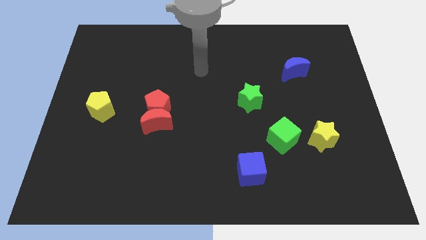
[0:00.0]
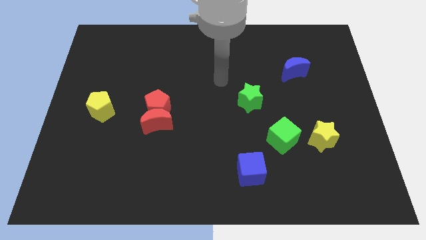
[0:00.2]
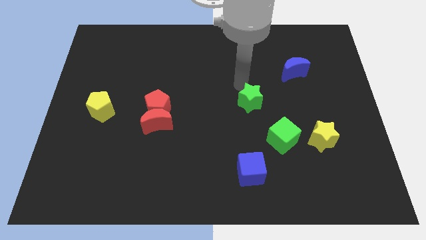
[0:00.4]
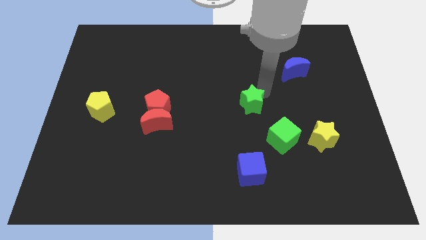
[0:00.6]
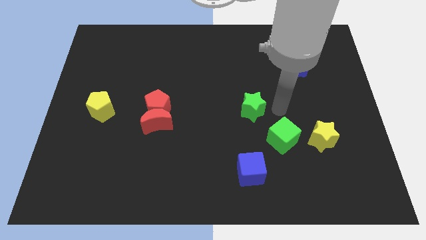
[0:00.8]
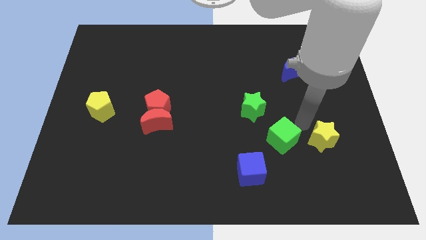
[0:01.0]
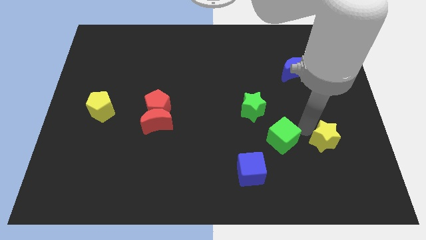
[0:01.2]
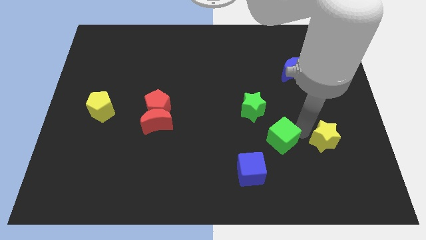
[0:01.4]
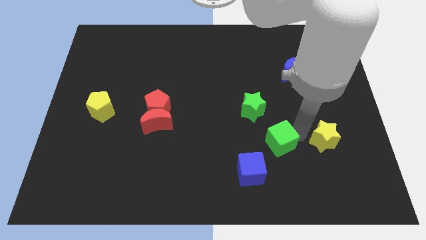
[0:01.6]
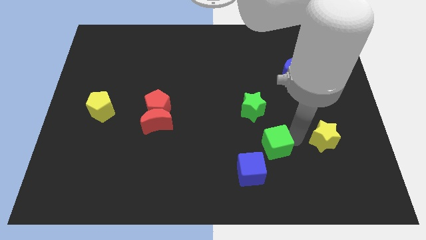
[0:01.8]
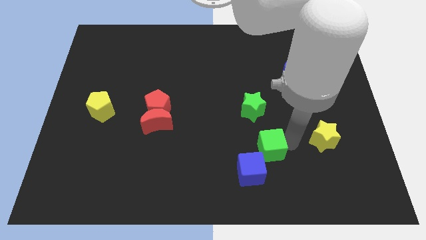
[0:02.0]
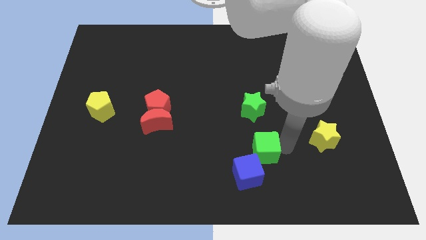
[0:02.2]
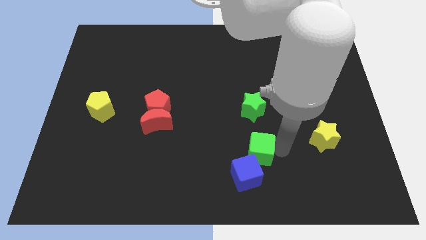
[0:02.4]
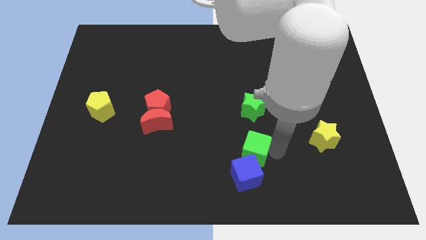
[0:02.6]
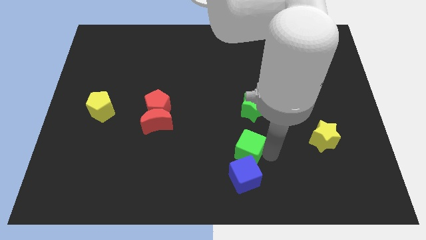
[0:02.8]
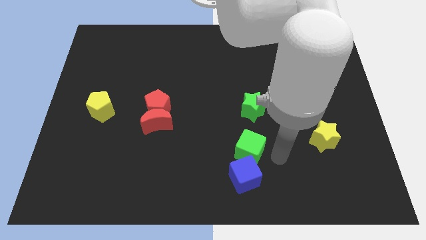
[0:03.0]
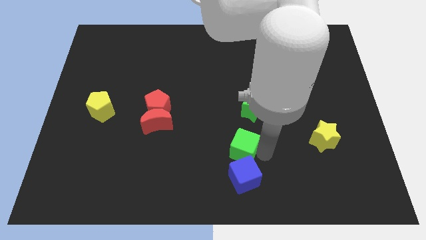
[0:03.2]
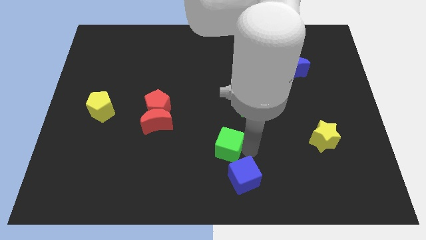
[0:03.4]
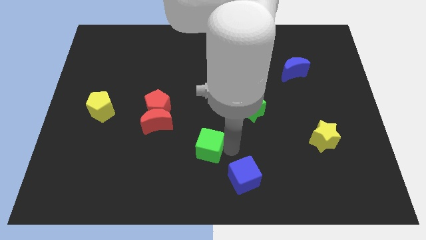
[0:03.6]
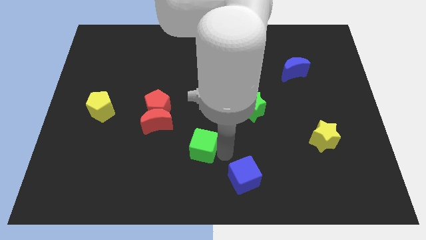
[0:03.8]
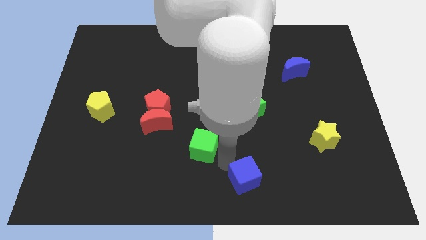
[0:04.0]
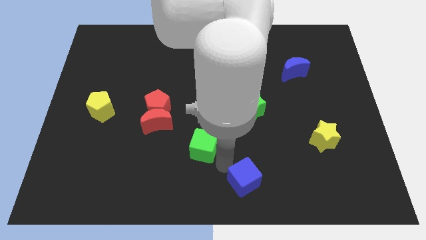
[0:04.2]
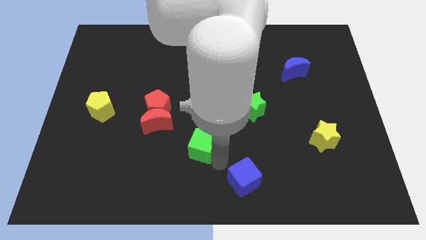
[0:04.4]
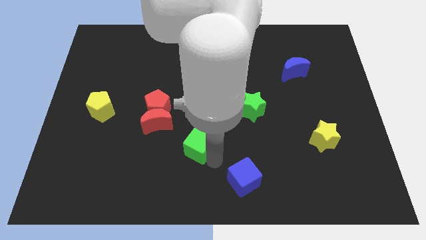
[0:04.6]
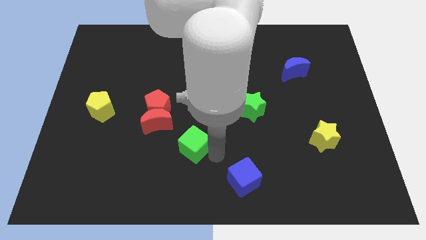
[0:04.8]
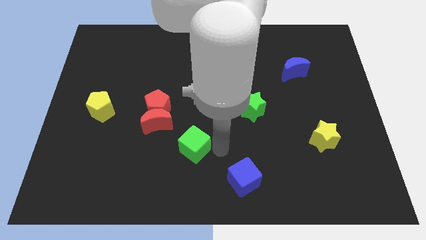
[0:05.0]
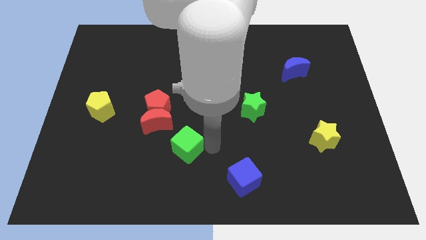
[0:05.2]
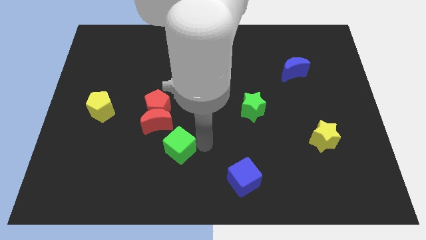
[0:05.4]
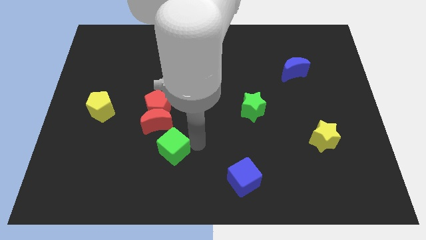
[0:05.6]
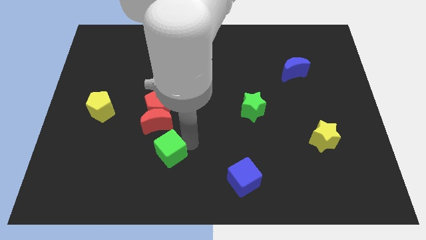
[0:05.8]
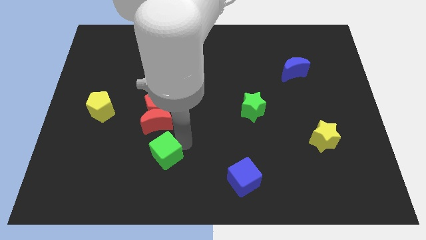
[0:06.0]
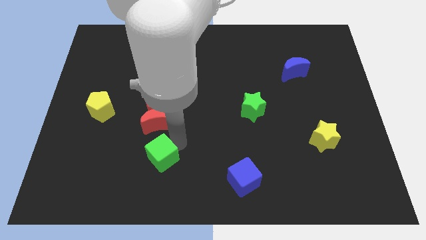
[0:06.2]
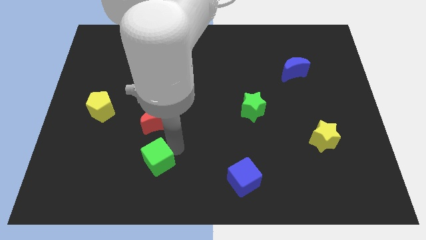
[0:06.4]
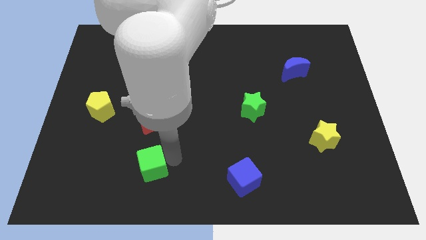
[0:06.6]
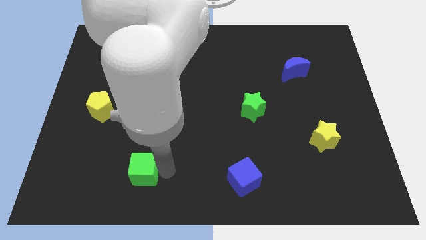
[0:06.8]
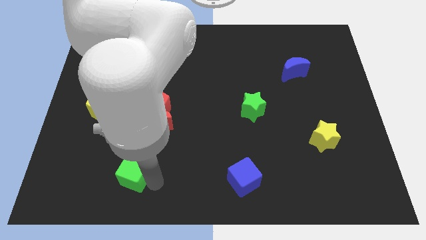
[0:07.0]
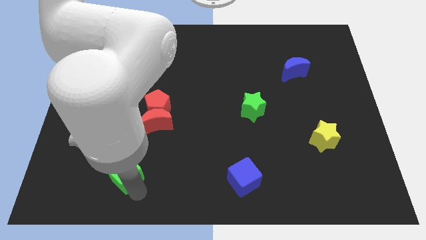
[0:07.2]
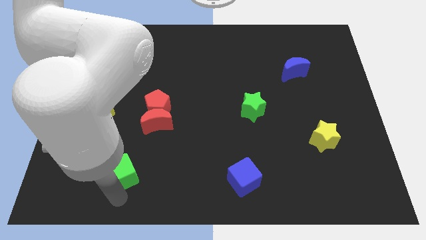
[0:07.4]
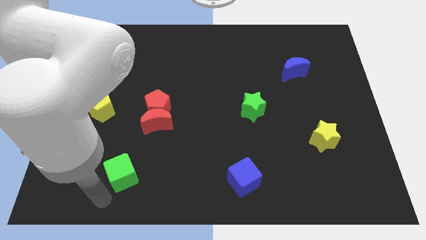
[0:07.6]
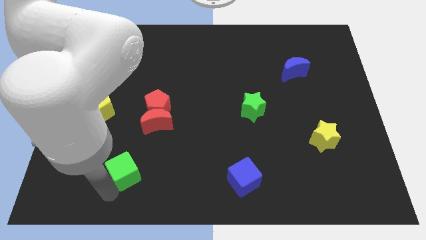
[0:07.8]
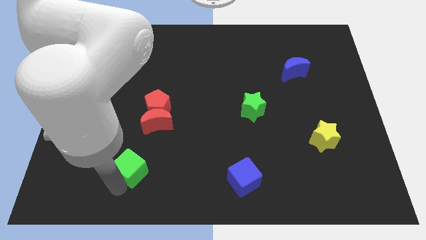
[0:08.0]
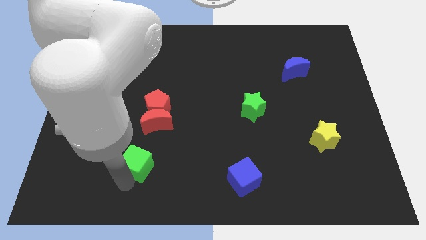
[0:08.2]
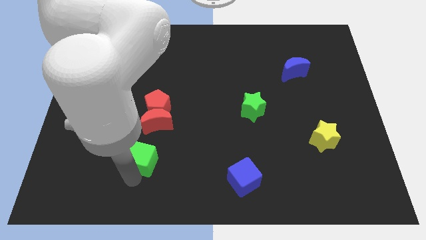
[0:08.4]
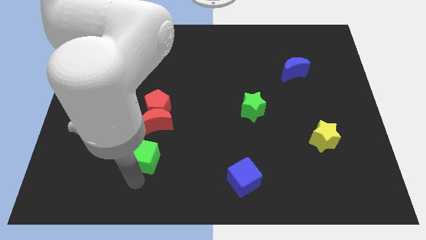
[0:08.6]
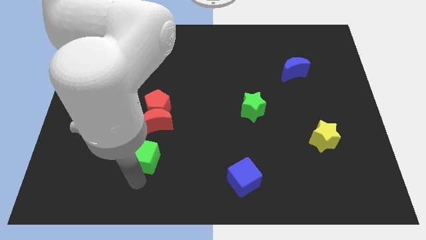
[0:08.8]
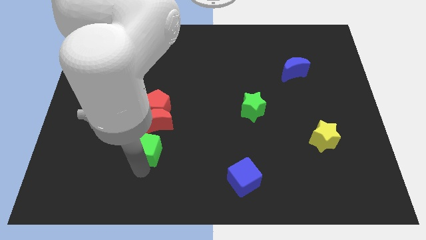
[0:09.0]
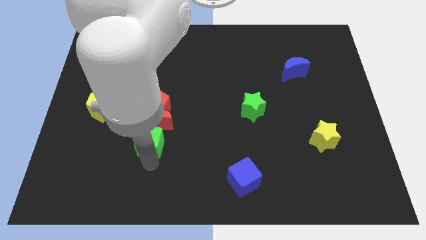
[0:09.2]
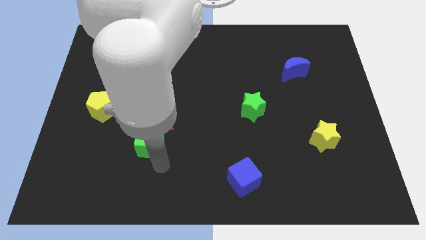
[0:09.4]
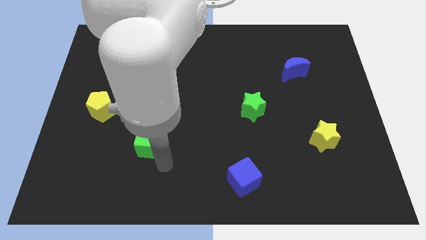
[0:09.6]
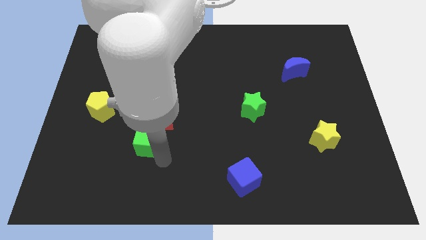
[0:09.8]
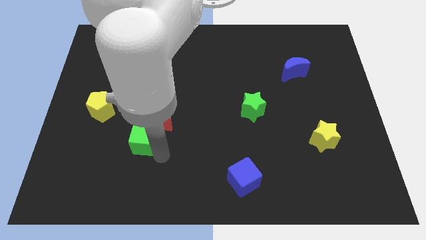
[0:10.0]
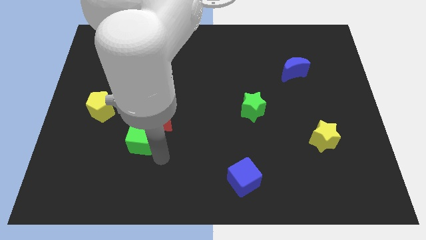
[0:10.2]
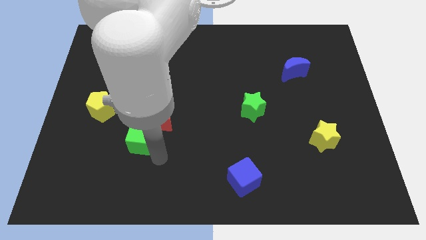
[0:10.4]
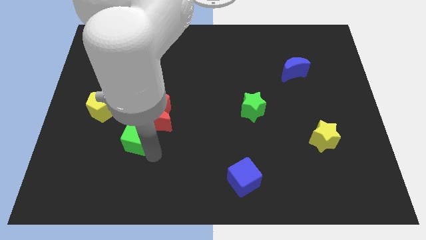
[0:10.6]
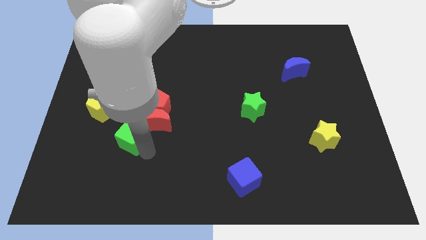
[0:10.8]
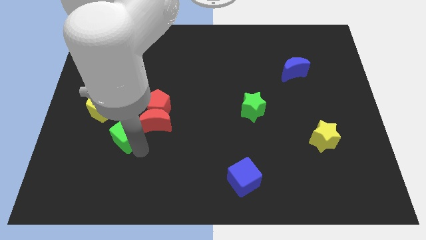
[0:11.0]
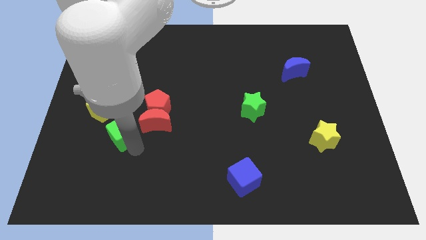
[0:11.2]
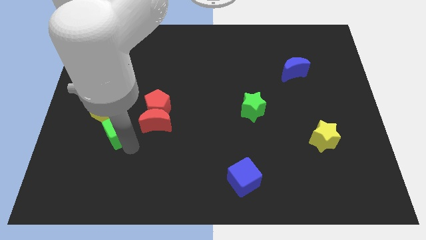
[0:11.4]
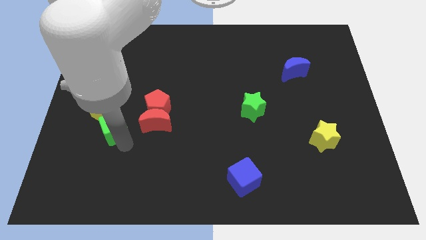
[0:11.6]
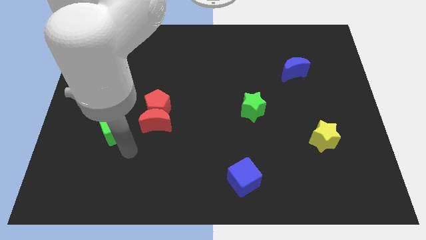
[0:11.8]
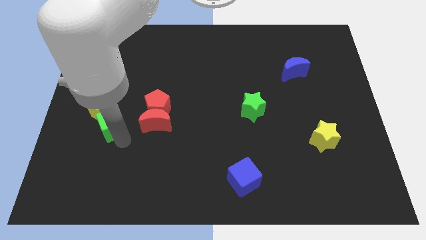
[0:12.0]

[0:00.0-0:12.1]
slide the green cube next to the yellow pentagon

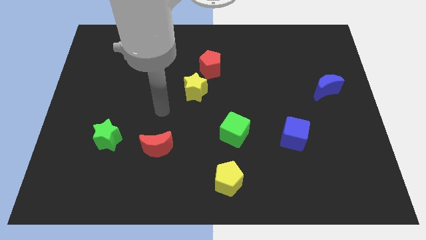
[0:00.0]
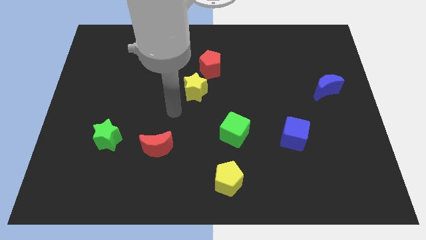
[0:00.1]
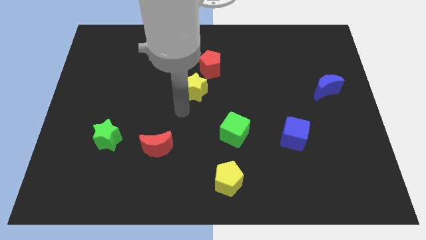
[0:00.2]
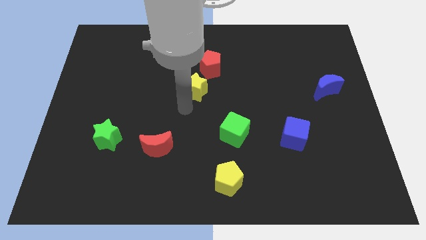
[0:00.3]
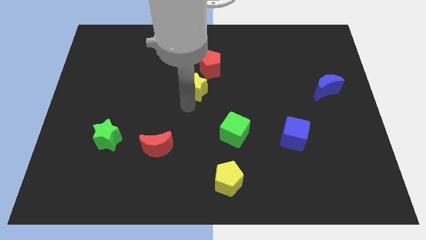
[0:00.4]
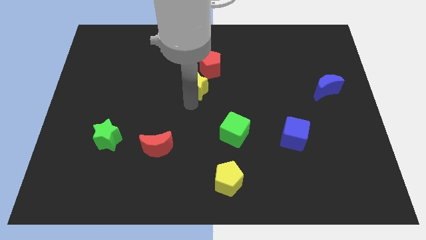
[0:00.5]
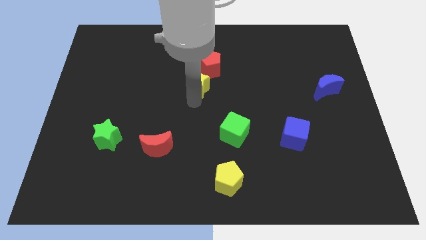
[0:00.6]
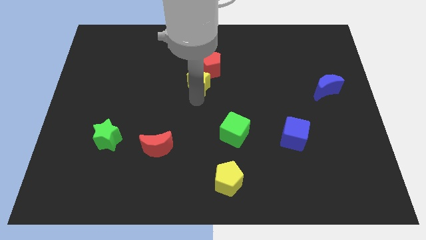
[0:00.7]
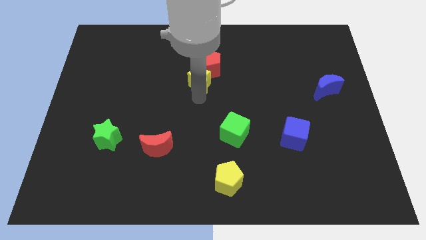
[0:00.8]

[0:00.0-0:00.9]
slide the yellow star towards the red pentagon

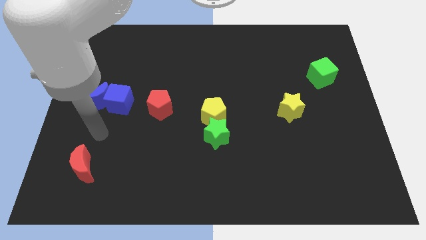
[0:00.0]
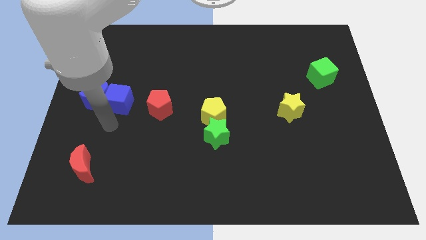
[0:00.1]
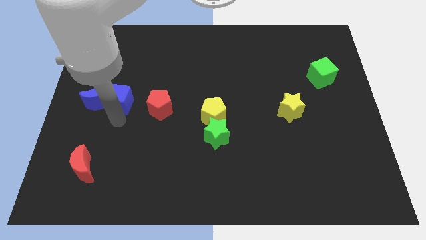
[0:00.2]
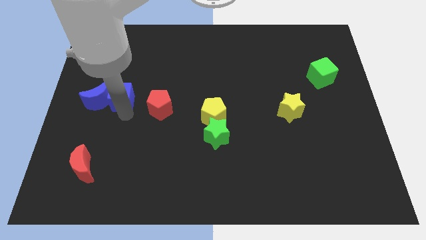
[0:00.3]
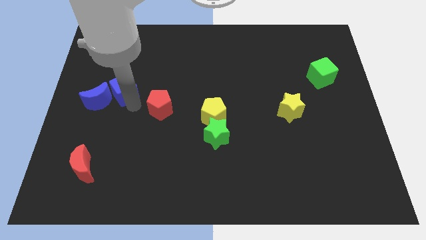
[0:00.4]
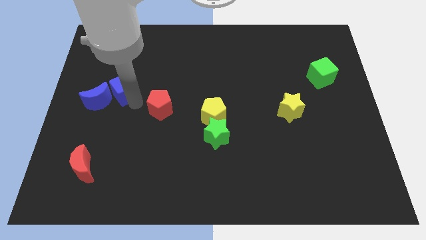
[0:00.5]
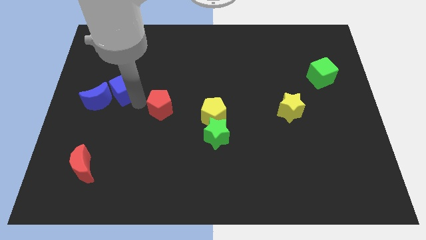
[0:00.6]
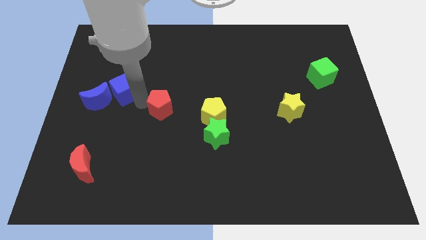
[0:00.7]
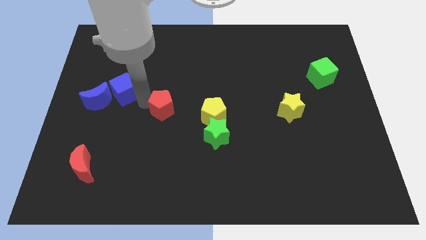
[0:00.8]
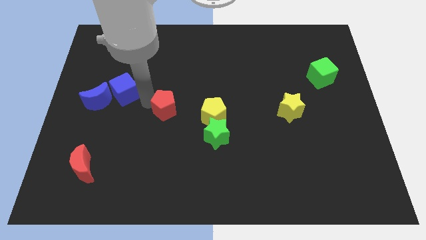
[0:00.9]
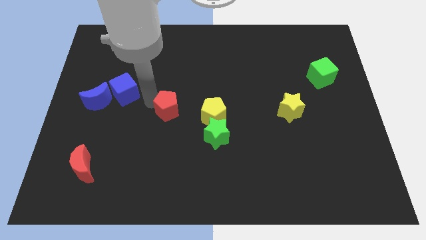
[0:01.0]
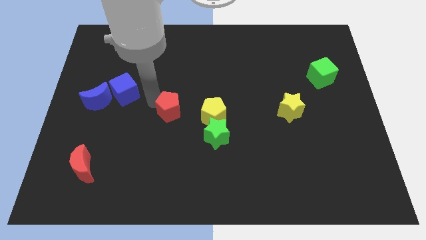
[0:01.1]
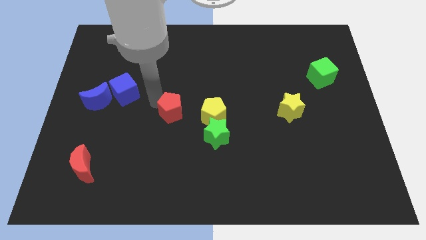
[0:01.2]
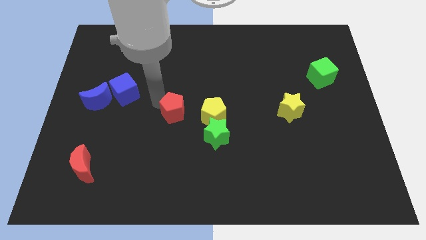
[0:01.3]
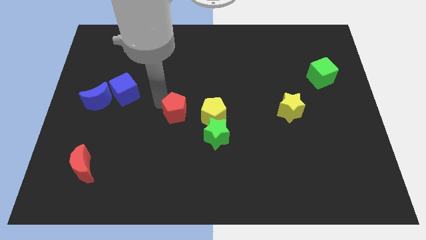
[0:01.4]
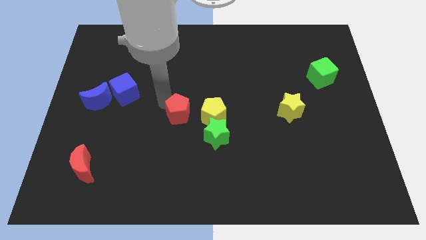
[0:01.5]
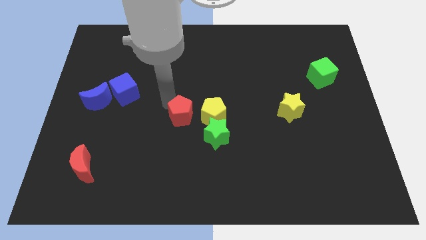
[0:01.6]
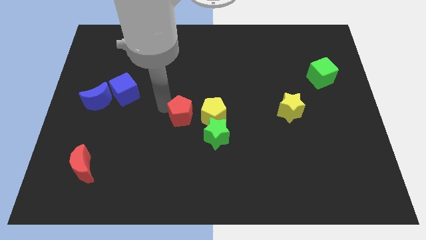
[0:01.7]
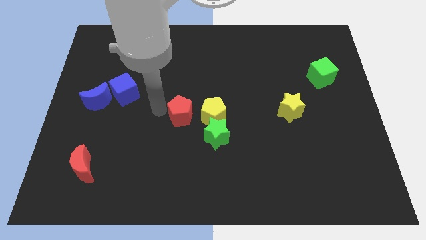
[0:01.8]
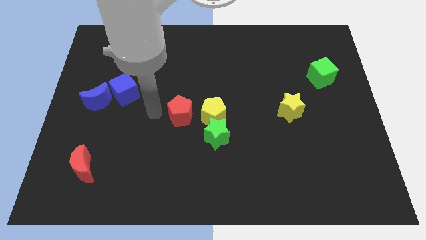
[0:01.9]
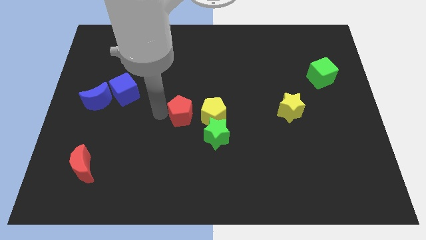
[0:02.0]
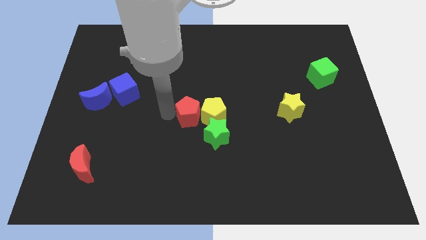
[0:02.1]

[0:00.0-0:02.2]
put the red pentagon towards the yellow pentagon
